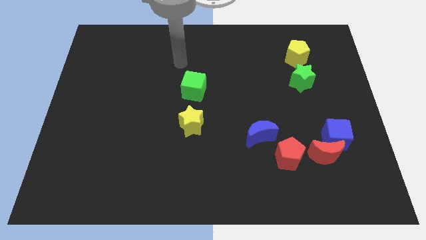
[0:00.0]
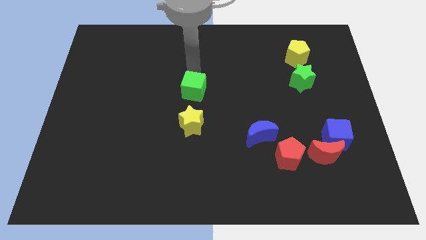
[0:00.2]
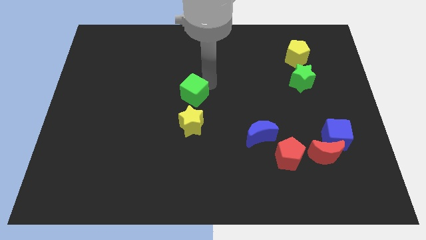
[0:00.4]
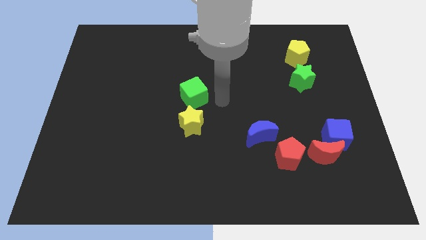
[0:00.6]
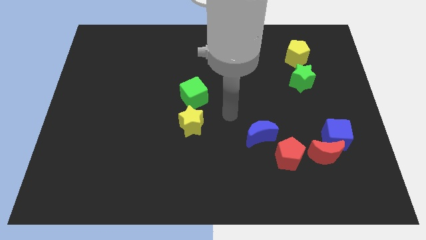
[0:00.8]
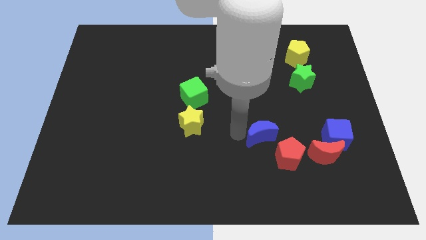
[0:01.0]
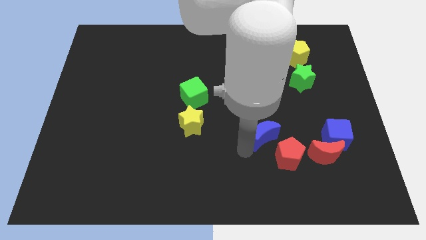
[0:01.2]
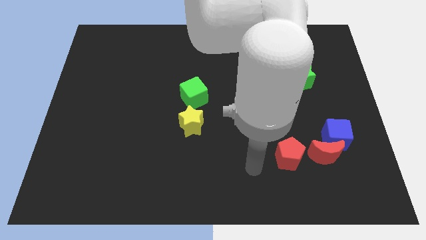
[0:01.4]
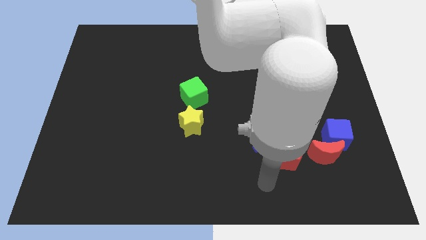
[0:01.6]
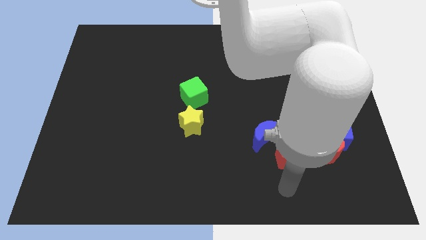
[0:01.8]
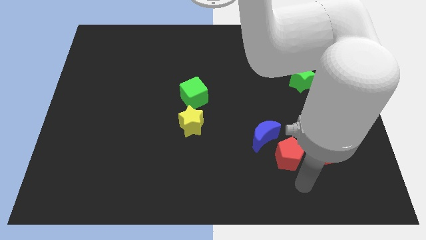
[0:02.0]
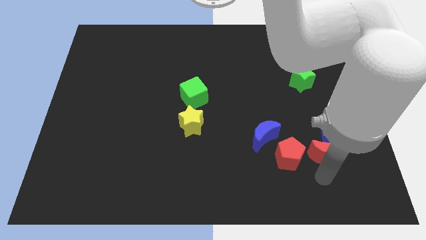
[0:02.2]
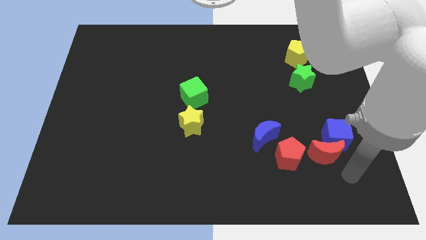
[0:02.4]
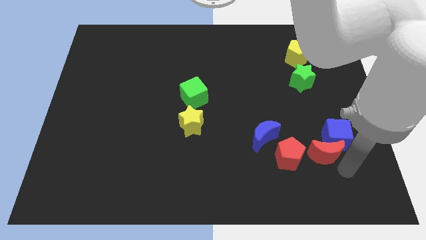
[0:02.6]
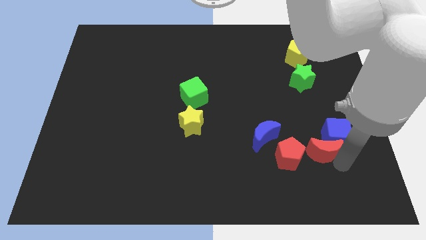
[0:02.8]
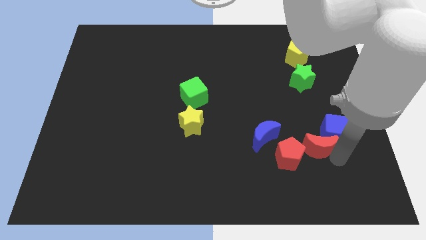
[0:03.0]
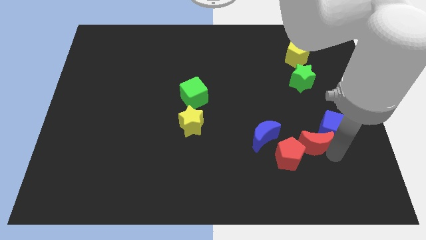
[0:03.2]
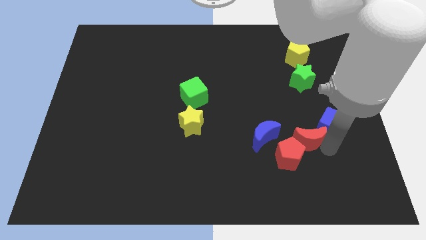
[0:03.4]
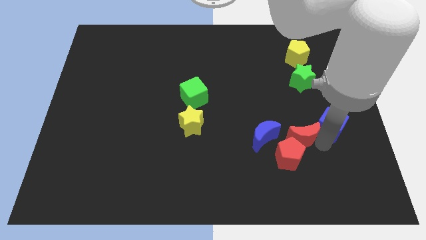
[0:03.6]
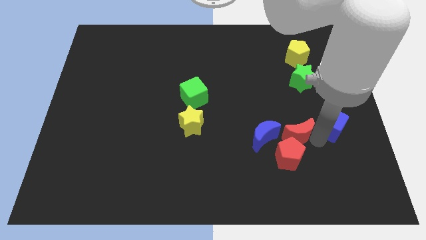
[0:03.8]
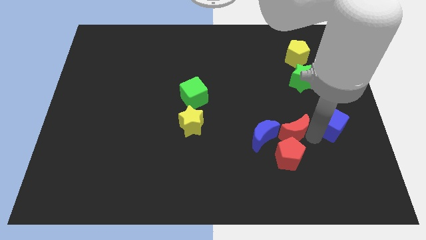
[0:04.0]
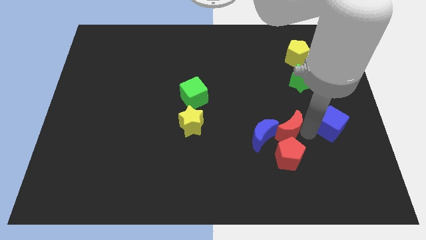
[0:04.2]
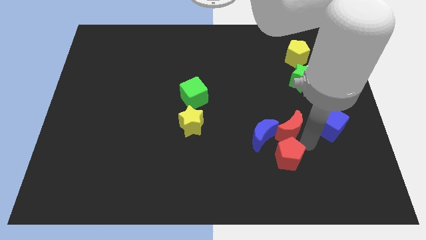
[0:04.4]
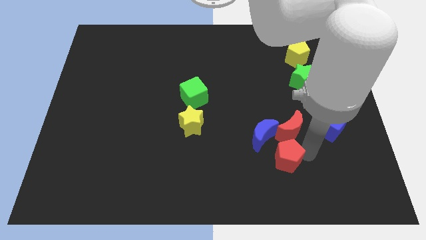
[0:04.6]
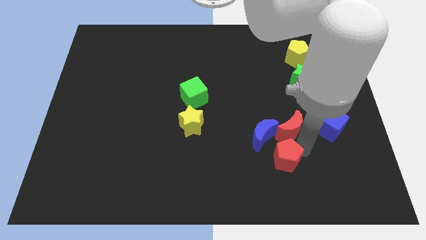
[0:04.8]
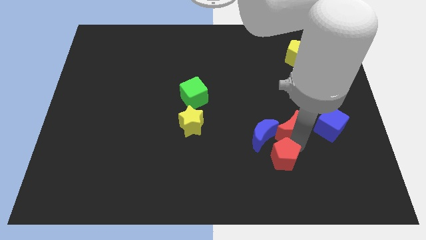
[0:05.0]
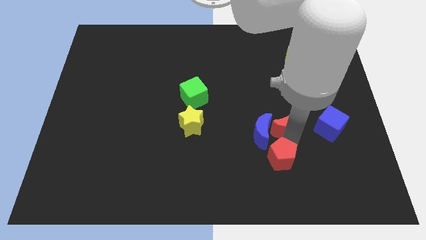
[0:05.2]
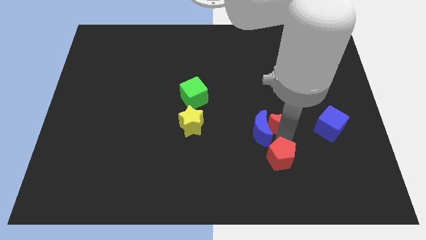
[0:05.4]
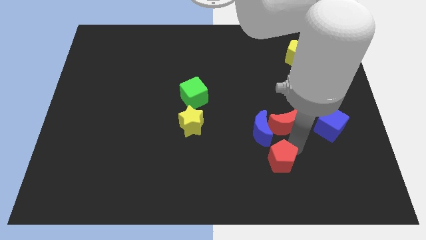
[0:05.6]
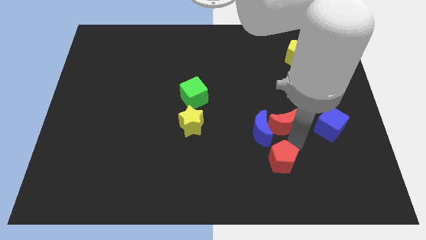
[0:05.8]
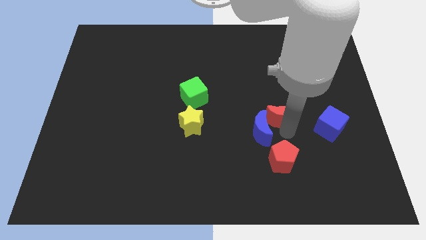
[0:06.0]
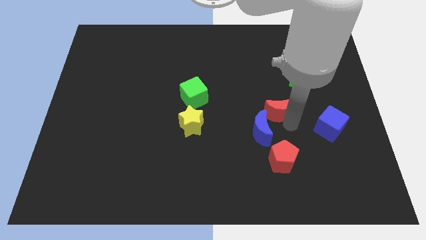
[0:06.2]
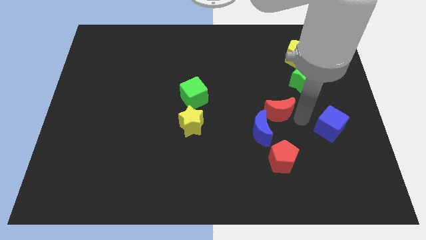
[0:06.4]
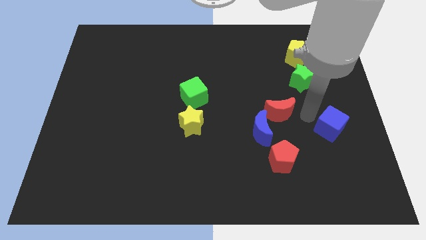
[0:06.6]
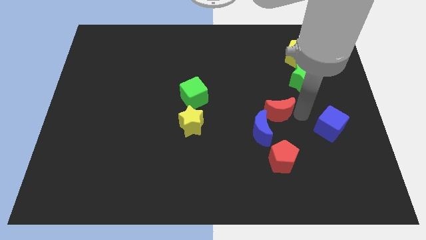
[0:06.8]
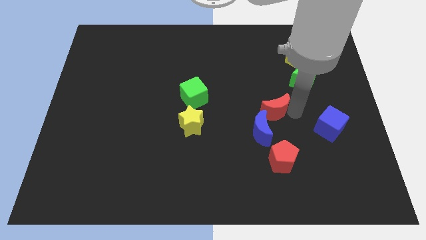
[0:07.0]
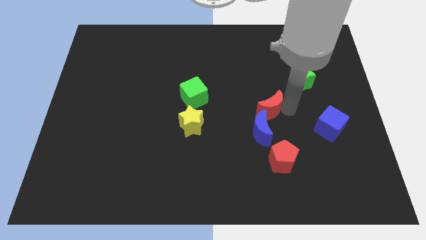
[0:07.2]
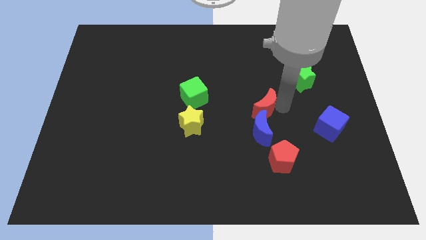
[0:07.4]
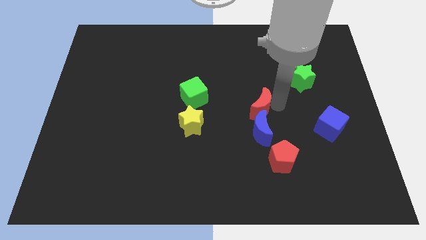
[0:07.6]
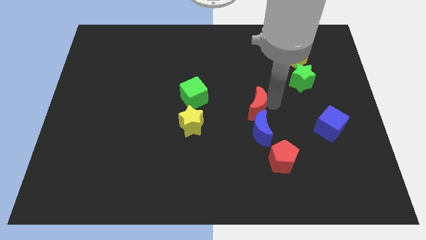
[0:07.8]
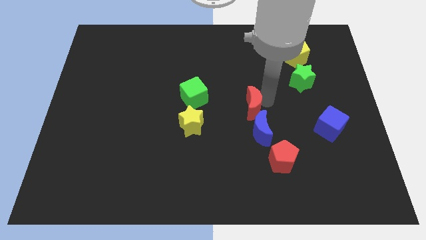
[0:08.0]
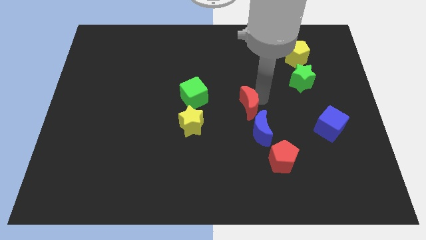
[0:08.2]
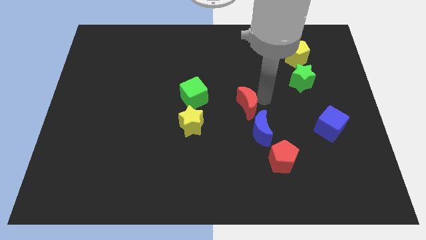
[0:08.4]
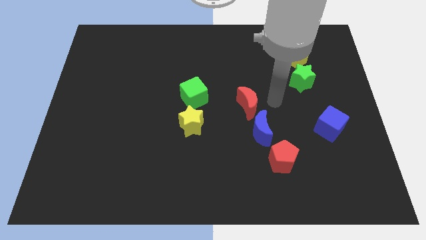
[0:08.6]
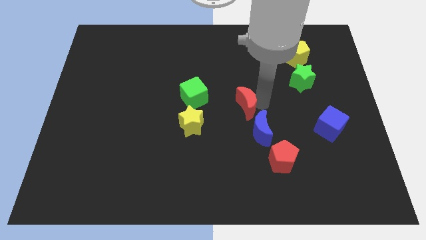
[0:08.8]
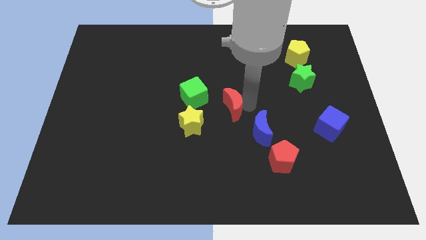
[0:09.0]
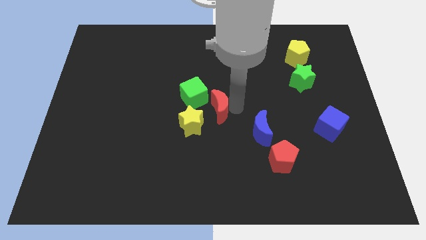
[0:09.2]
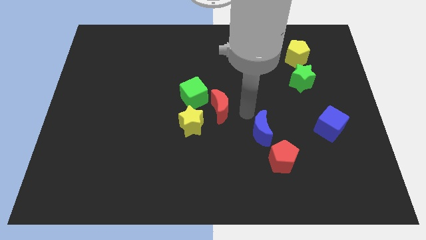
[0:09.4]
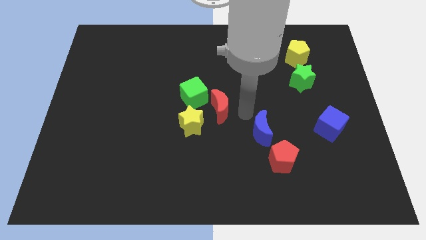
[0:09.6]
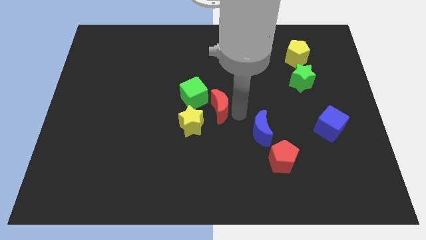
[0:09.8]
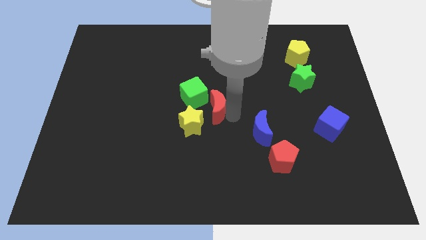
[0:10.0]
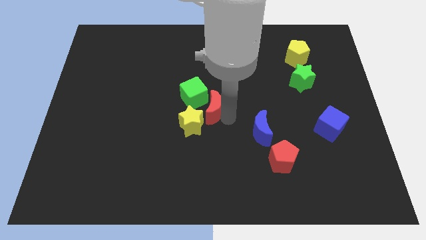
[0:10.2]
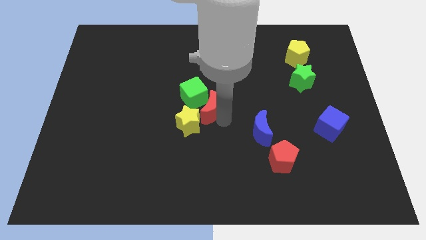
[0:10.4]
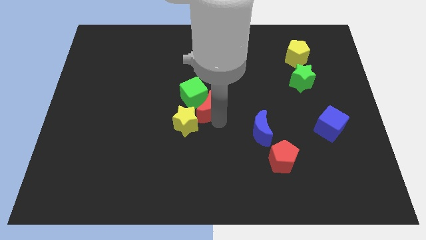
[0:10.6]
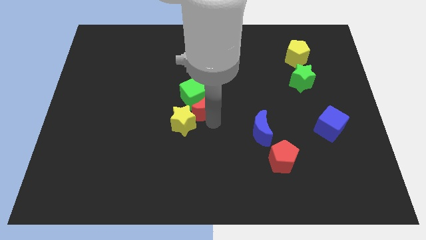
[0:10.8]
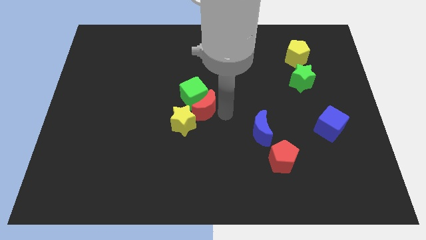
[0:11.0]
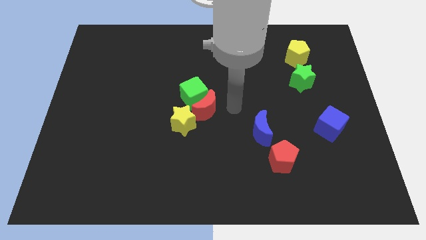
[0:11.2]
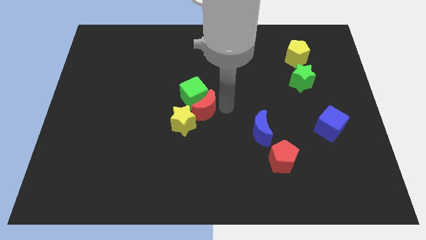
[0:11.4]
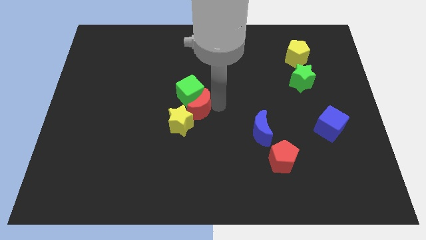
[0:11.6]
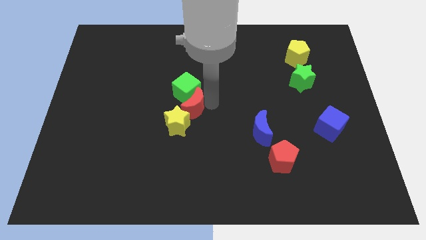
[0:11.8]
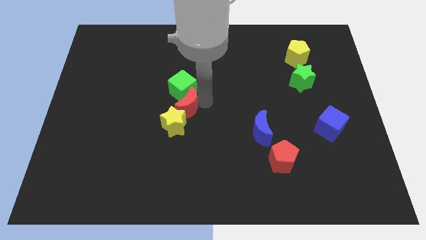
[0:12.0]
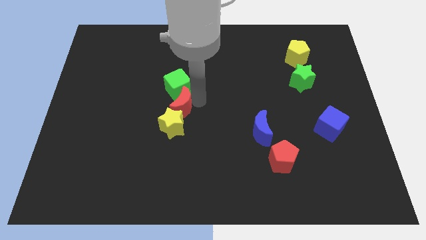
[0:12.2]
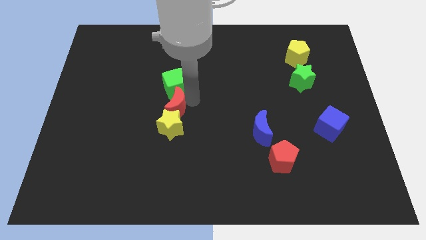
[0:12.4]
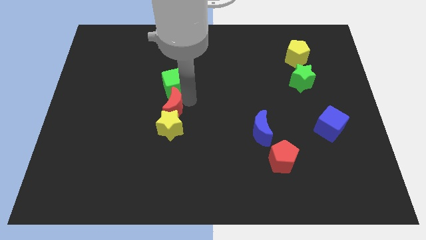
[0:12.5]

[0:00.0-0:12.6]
push the red moon diagonally down and to the left of the green cube

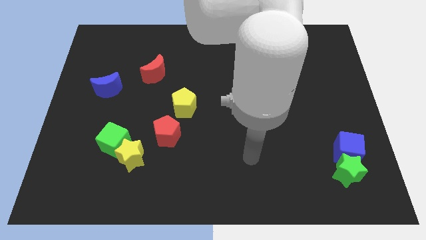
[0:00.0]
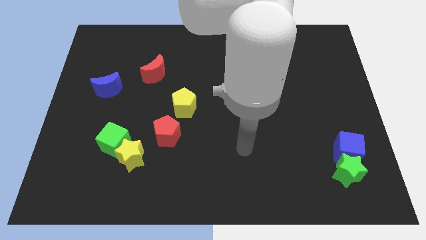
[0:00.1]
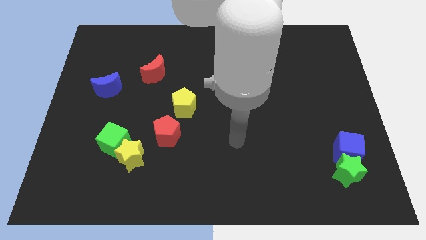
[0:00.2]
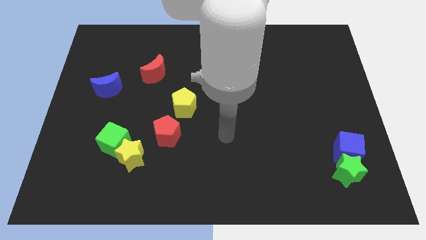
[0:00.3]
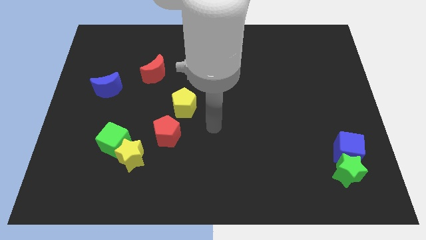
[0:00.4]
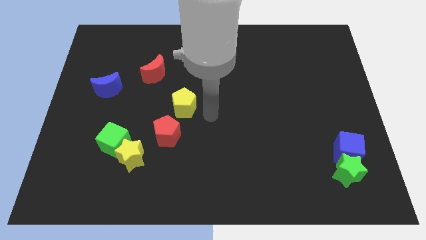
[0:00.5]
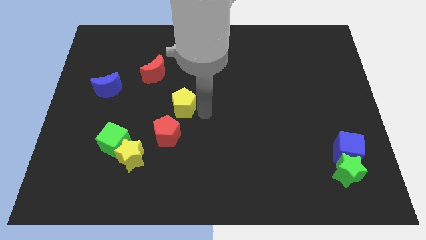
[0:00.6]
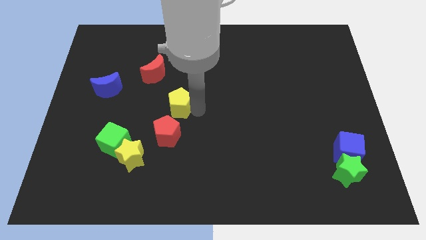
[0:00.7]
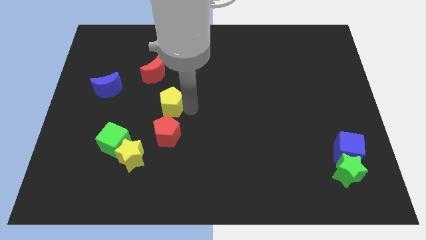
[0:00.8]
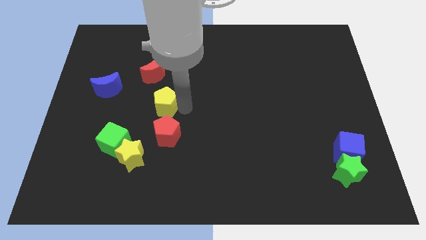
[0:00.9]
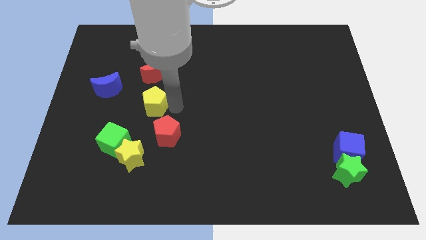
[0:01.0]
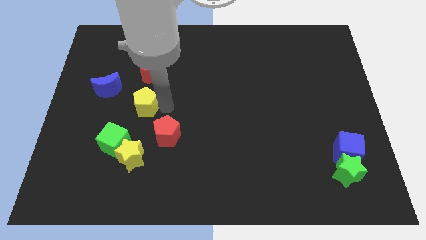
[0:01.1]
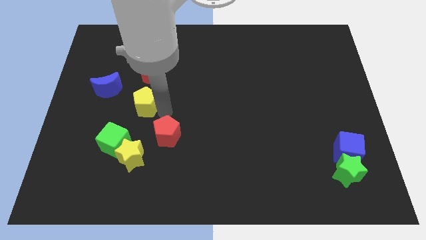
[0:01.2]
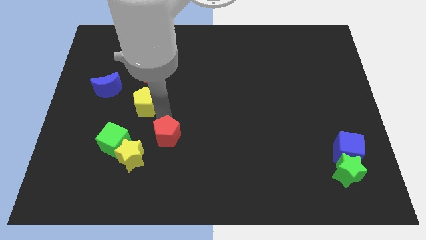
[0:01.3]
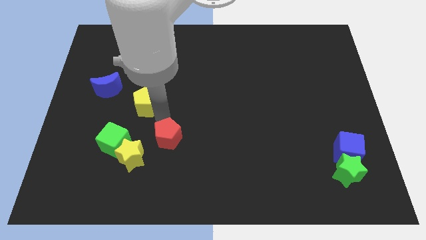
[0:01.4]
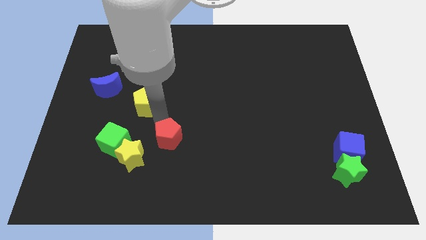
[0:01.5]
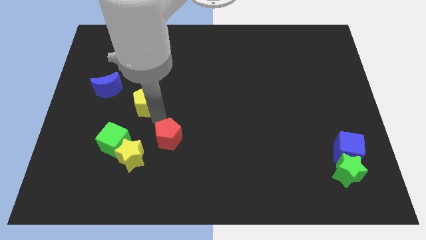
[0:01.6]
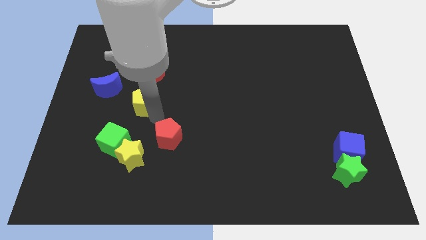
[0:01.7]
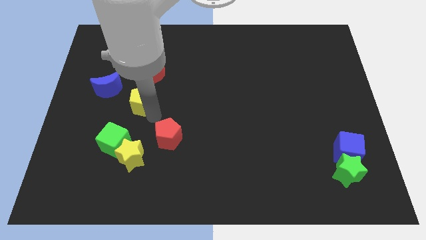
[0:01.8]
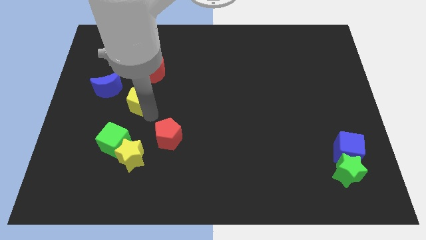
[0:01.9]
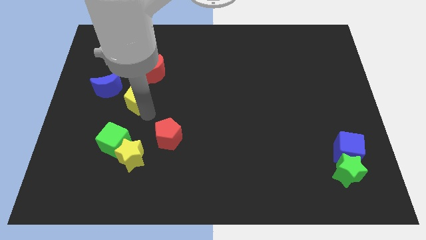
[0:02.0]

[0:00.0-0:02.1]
put the yellow pentagon to the bottom left side of the red moon
